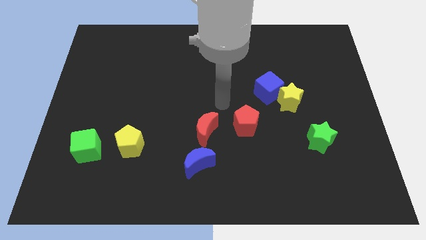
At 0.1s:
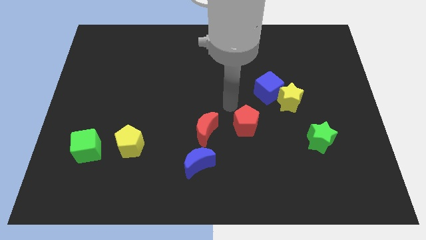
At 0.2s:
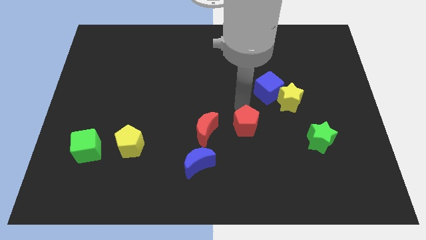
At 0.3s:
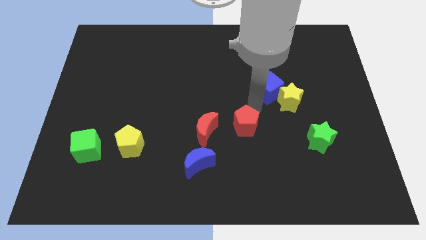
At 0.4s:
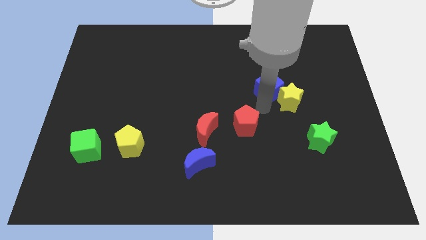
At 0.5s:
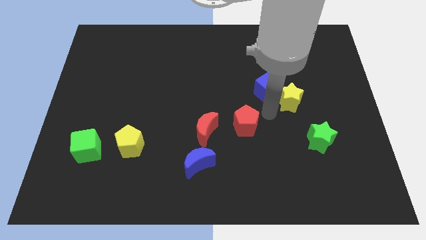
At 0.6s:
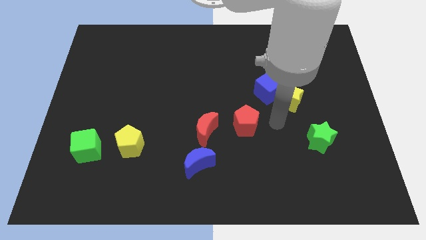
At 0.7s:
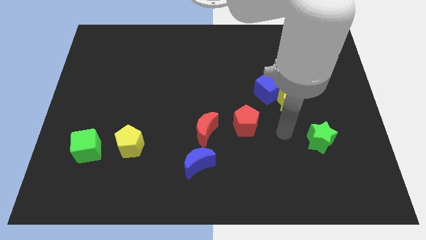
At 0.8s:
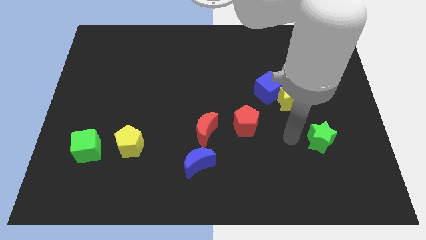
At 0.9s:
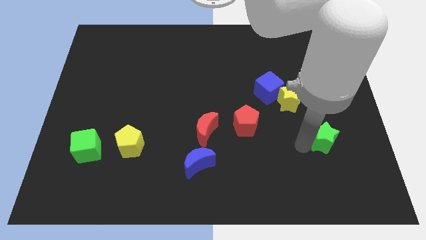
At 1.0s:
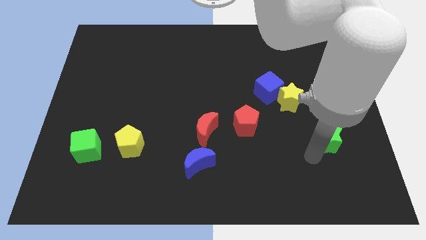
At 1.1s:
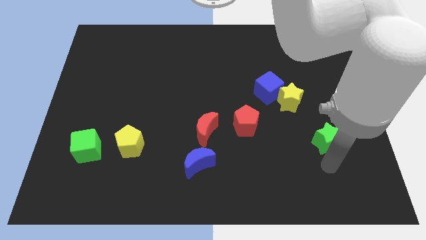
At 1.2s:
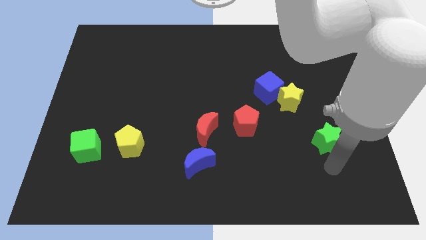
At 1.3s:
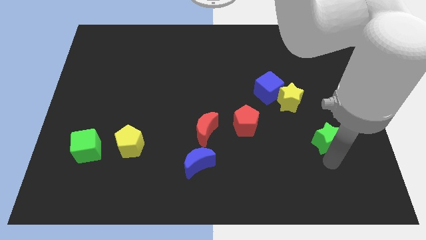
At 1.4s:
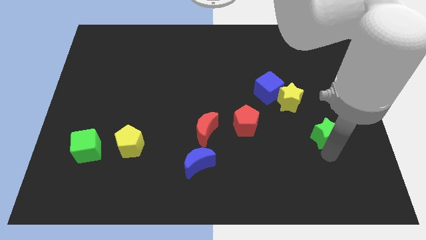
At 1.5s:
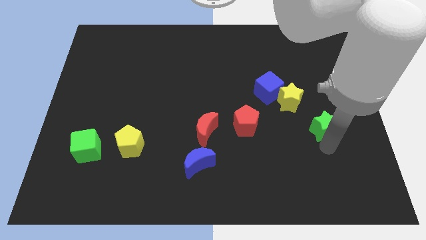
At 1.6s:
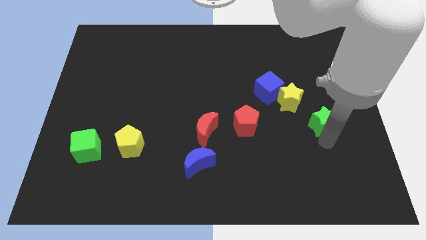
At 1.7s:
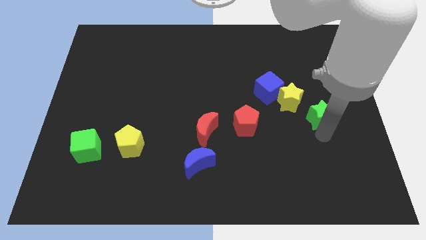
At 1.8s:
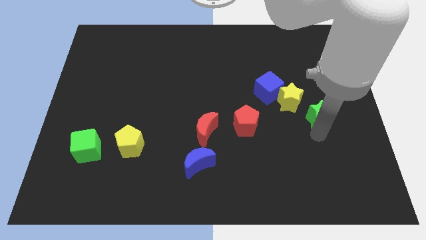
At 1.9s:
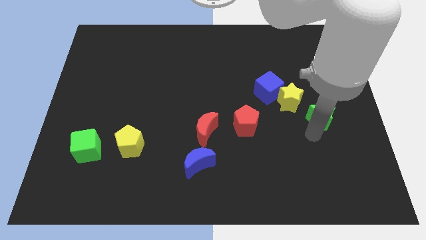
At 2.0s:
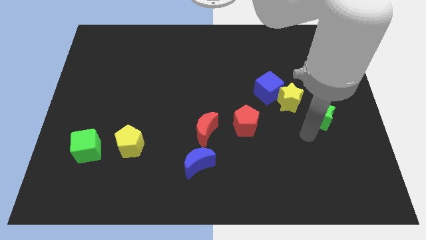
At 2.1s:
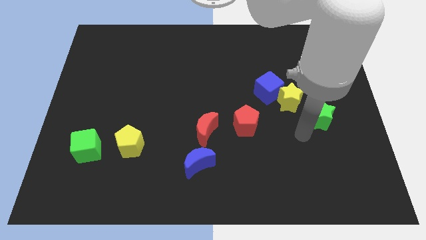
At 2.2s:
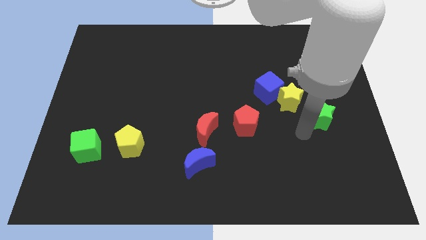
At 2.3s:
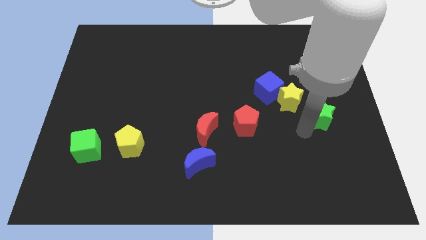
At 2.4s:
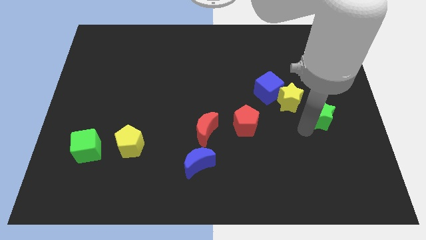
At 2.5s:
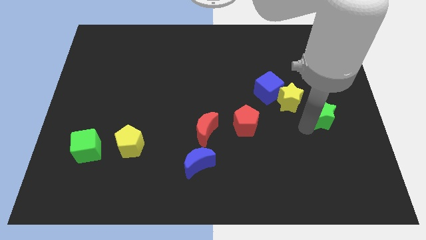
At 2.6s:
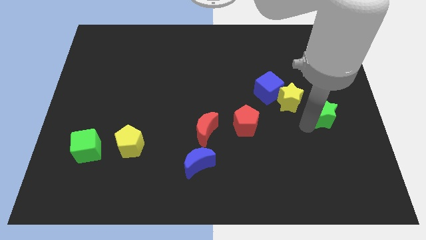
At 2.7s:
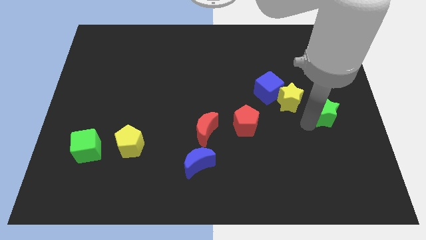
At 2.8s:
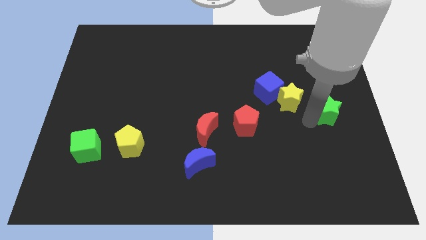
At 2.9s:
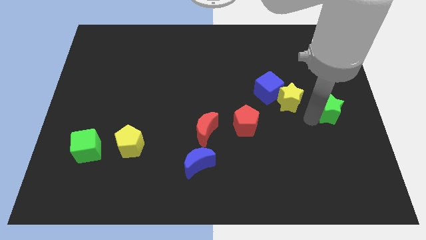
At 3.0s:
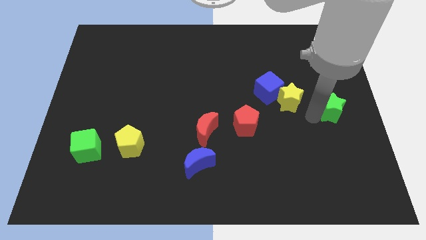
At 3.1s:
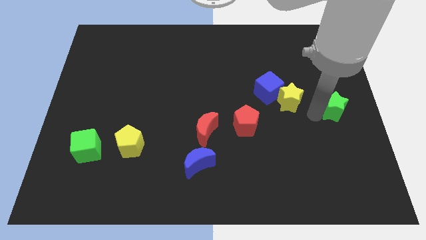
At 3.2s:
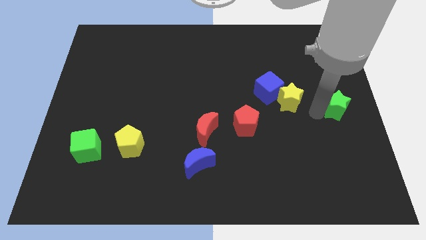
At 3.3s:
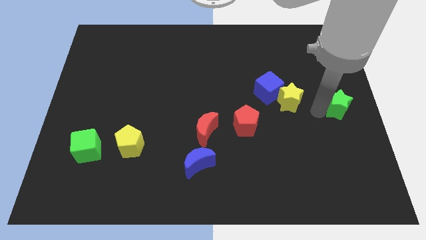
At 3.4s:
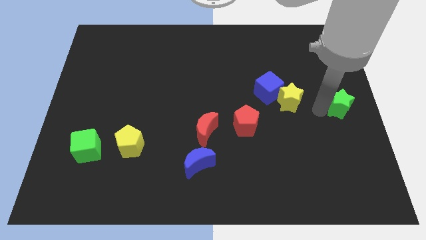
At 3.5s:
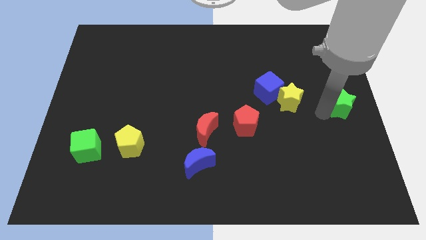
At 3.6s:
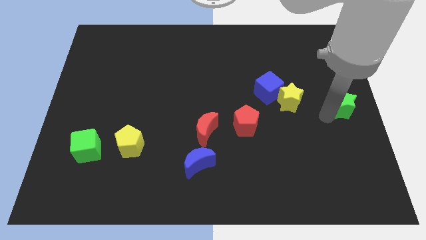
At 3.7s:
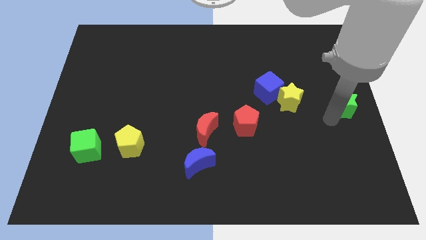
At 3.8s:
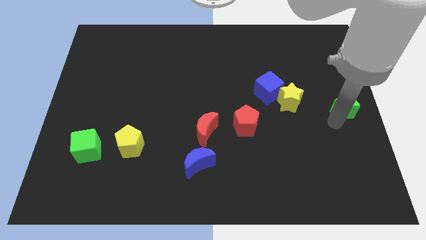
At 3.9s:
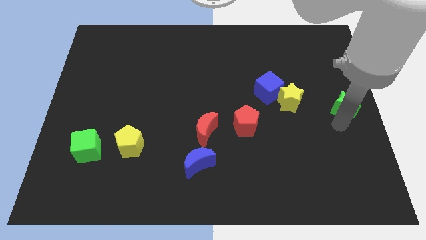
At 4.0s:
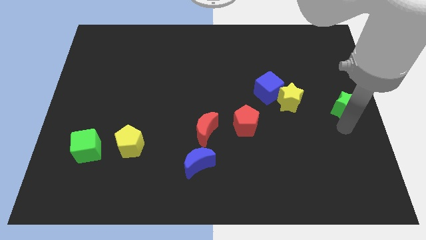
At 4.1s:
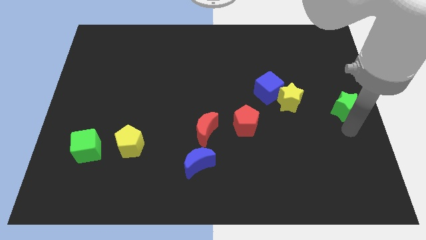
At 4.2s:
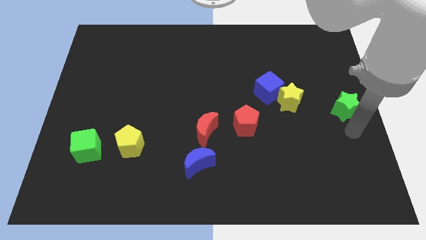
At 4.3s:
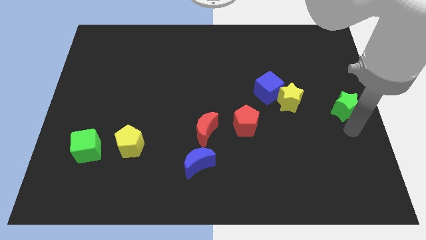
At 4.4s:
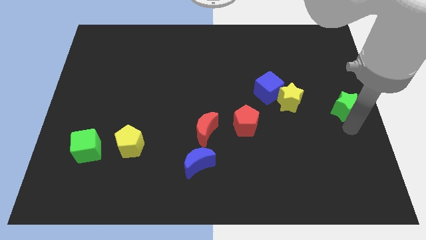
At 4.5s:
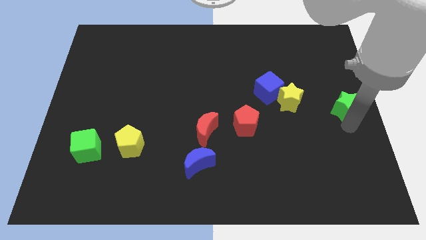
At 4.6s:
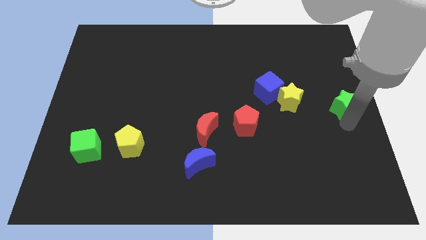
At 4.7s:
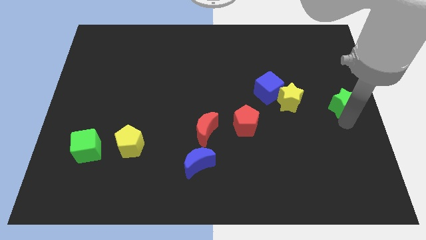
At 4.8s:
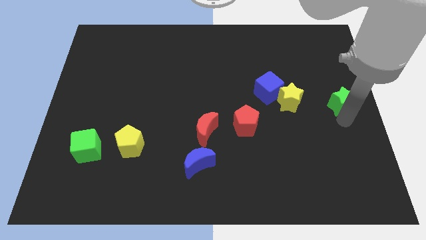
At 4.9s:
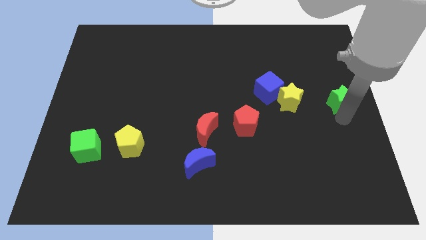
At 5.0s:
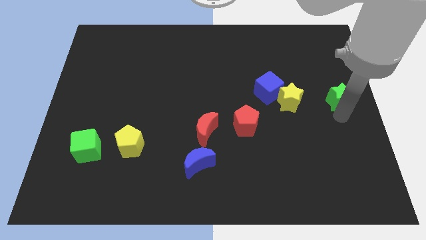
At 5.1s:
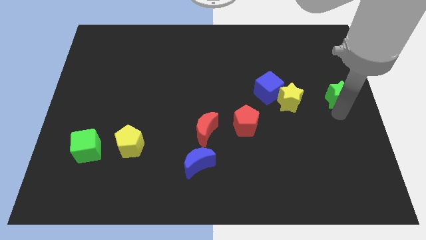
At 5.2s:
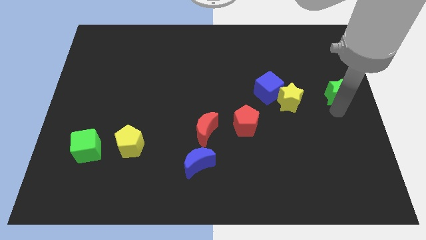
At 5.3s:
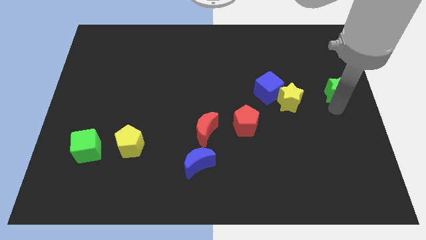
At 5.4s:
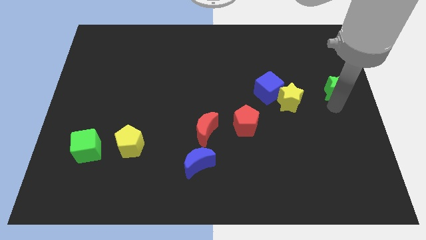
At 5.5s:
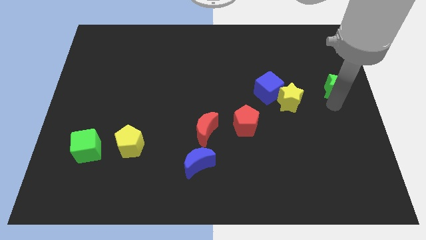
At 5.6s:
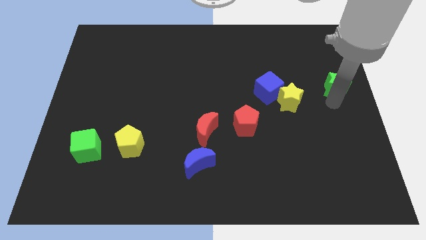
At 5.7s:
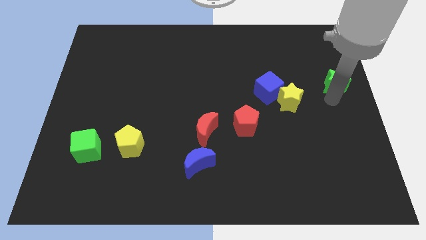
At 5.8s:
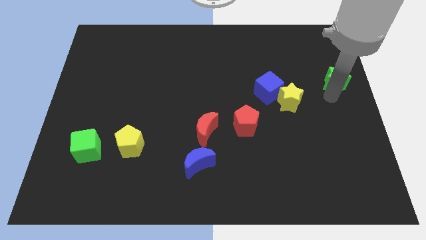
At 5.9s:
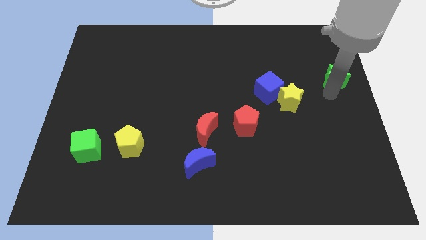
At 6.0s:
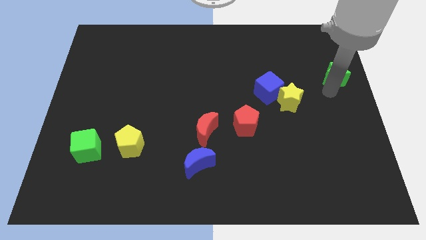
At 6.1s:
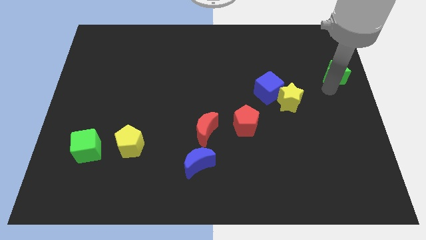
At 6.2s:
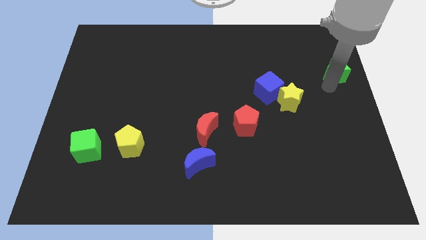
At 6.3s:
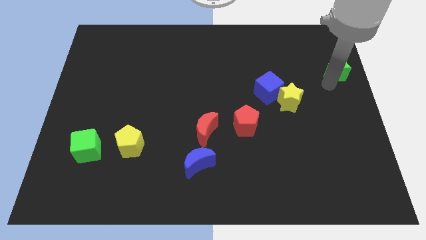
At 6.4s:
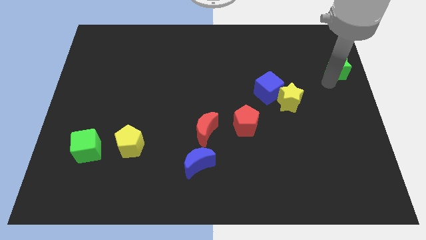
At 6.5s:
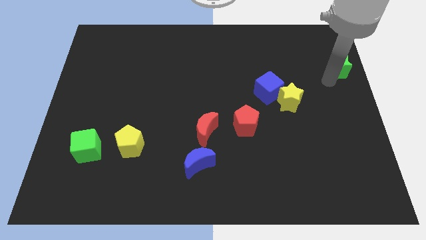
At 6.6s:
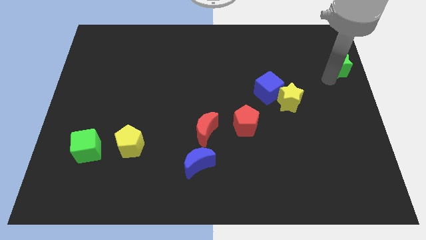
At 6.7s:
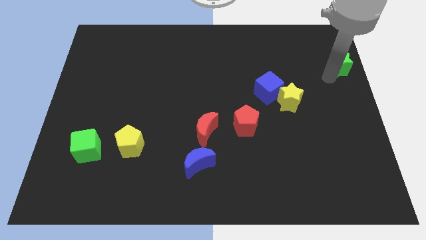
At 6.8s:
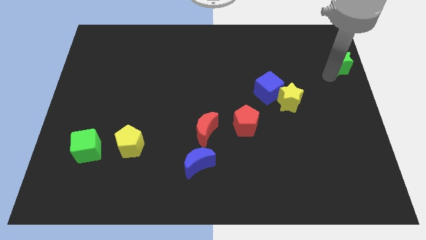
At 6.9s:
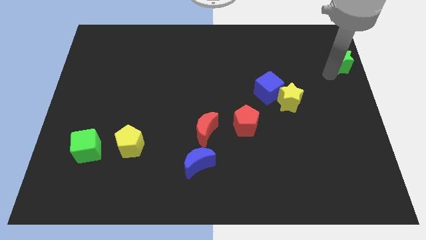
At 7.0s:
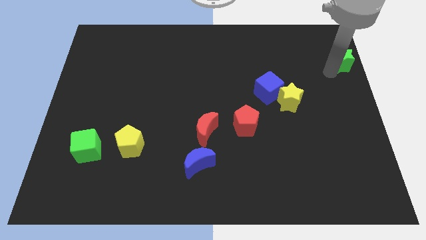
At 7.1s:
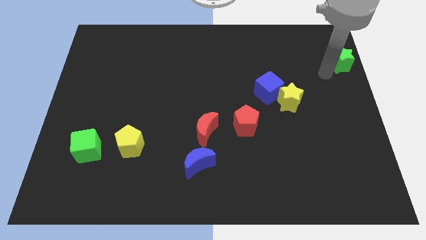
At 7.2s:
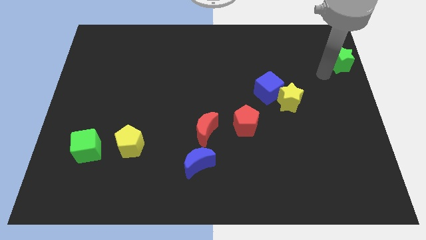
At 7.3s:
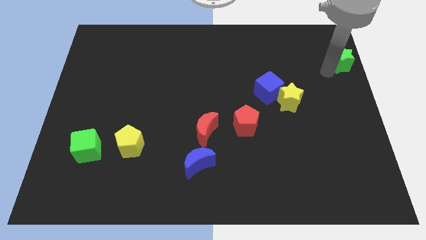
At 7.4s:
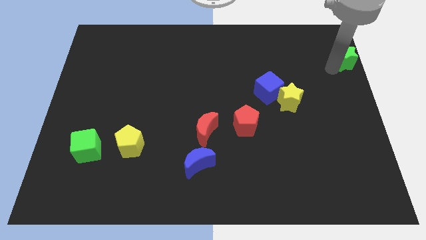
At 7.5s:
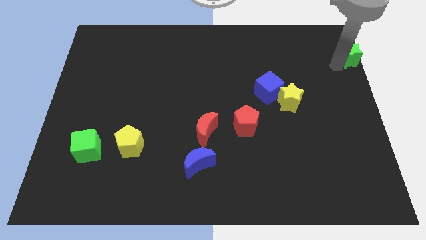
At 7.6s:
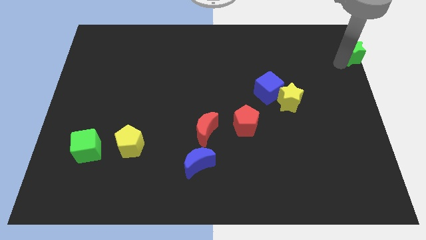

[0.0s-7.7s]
push the green star to the top right
